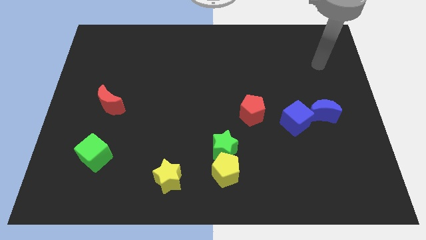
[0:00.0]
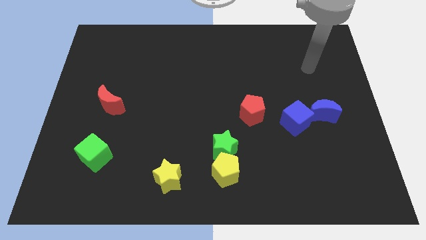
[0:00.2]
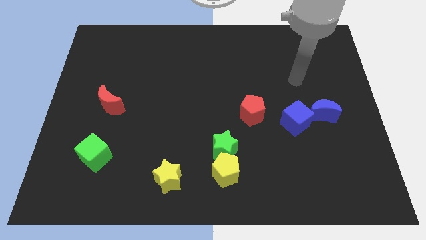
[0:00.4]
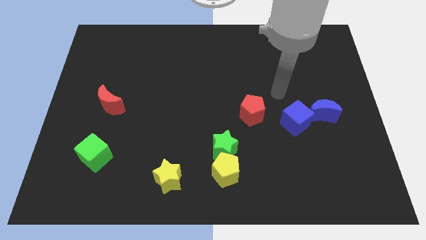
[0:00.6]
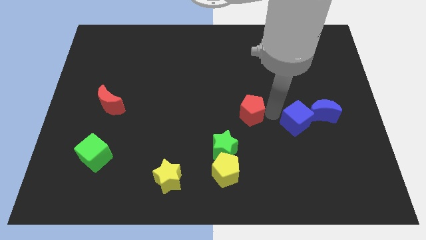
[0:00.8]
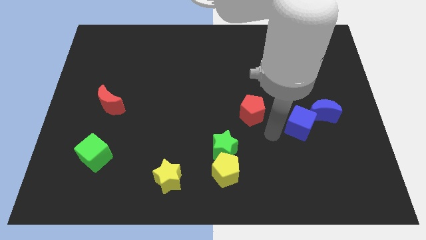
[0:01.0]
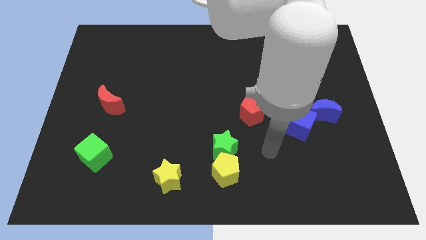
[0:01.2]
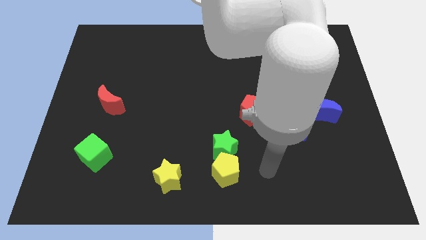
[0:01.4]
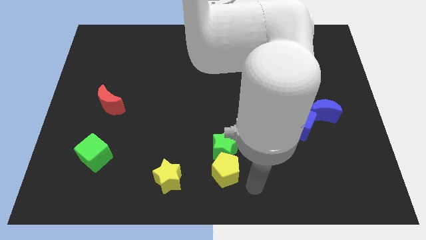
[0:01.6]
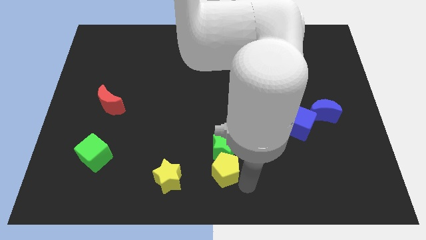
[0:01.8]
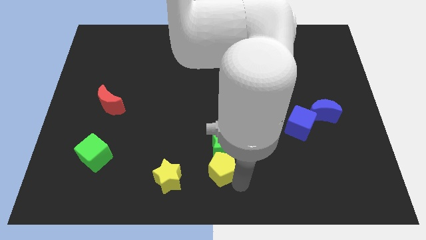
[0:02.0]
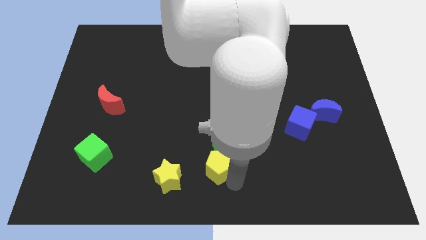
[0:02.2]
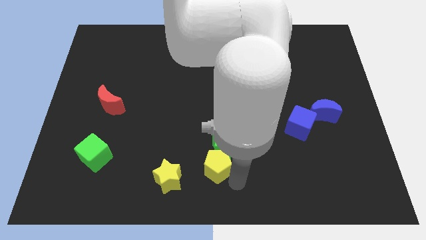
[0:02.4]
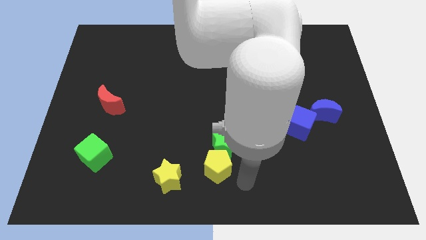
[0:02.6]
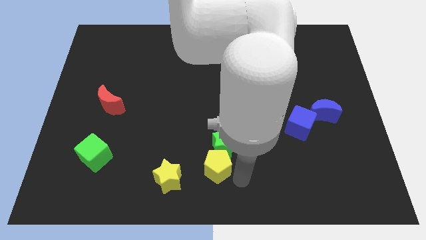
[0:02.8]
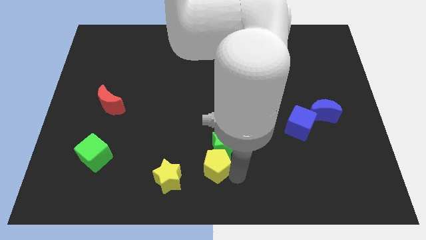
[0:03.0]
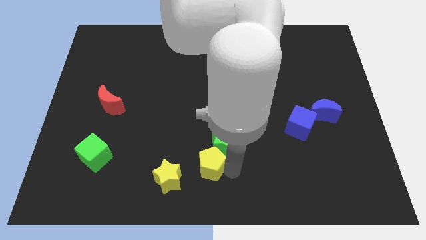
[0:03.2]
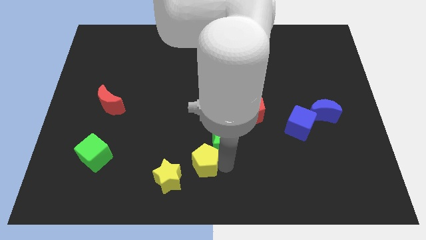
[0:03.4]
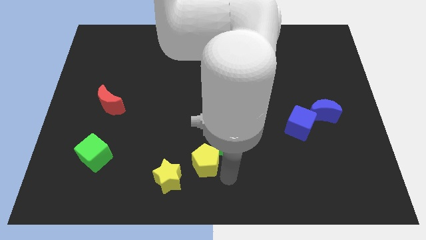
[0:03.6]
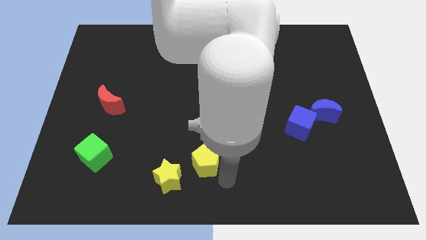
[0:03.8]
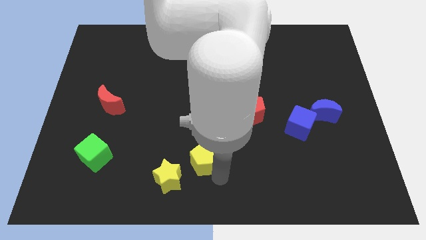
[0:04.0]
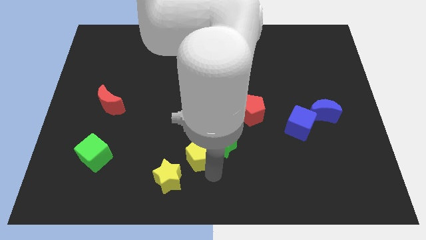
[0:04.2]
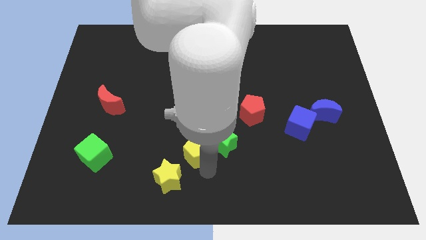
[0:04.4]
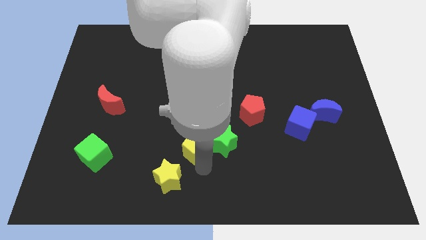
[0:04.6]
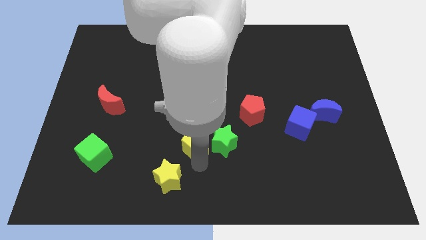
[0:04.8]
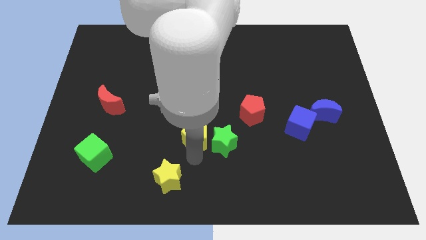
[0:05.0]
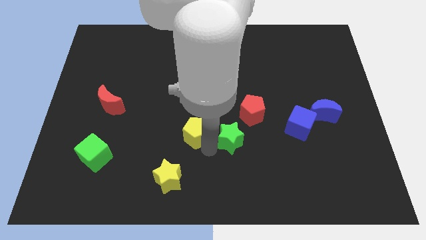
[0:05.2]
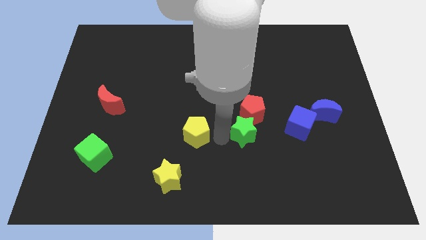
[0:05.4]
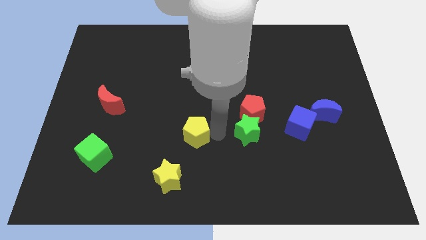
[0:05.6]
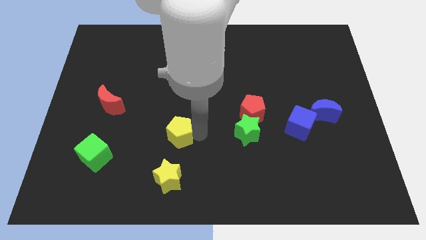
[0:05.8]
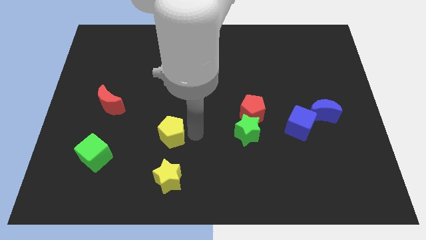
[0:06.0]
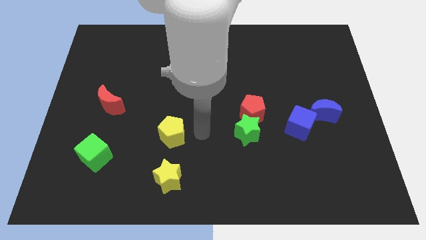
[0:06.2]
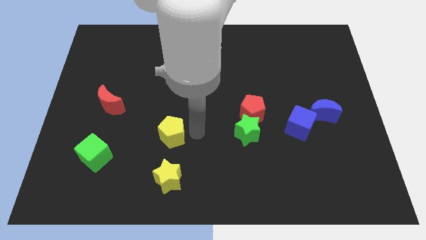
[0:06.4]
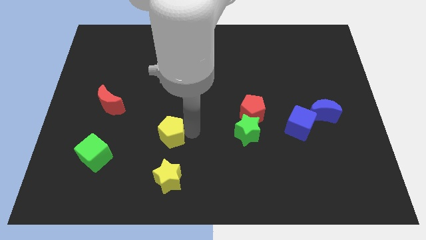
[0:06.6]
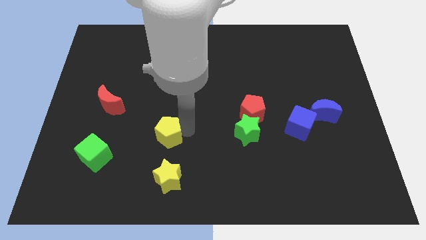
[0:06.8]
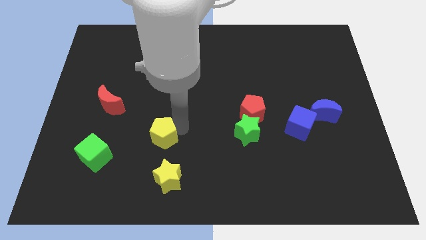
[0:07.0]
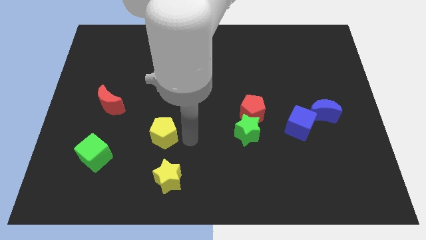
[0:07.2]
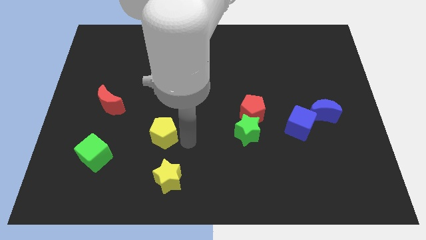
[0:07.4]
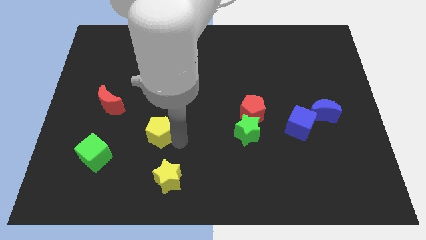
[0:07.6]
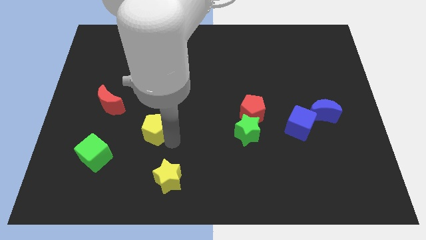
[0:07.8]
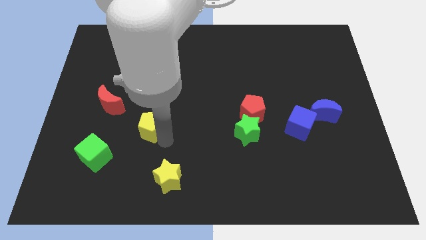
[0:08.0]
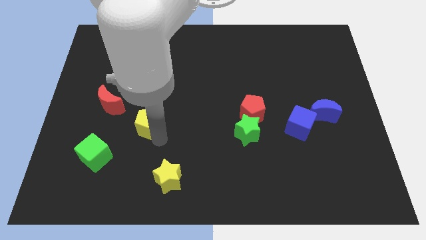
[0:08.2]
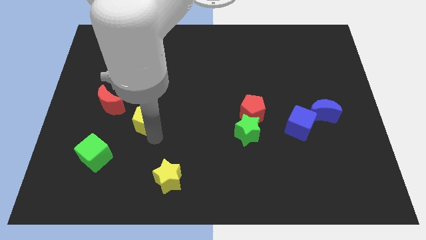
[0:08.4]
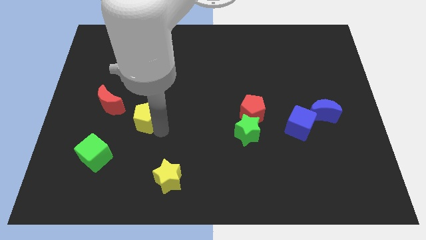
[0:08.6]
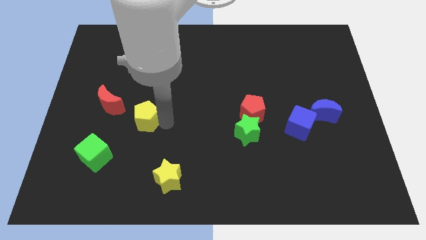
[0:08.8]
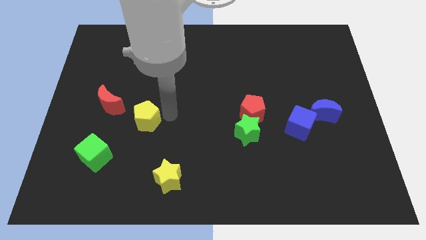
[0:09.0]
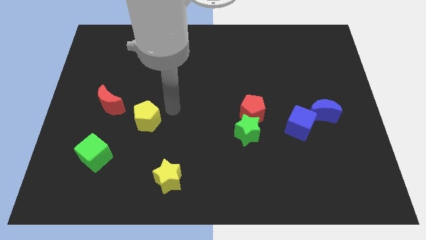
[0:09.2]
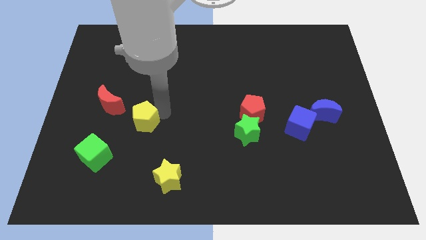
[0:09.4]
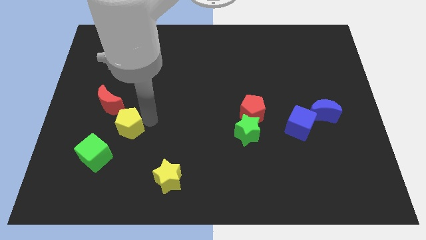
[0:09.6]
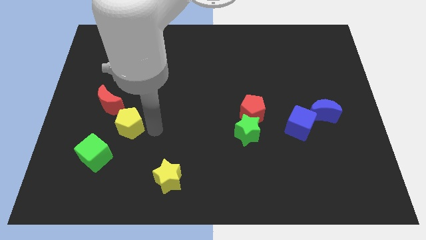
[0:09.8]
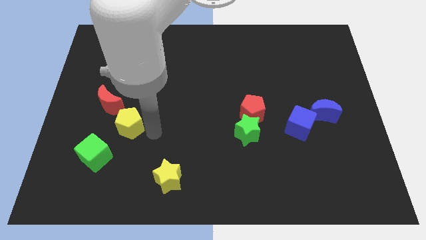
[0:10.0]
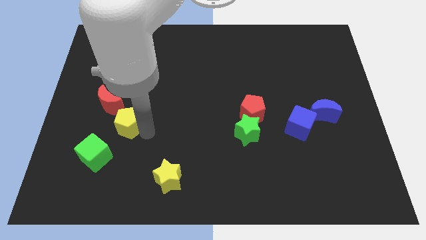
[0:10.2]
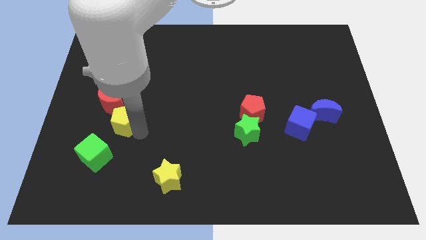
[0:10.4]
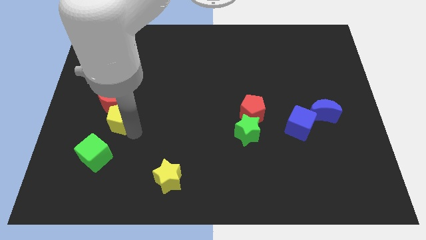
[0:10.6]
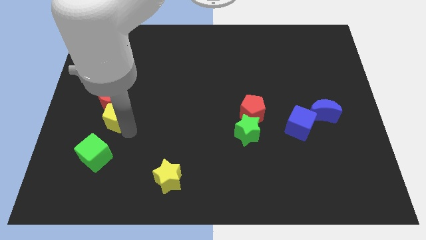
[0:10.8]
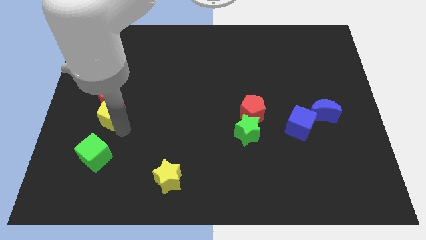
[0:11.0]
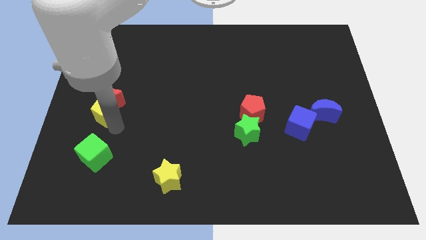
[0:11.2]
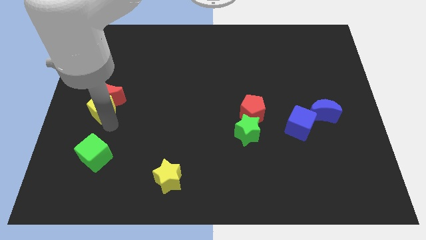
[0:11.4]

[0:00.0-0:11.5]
slide the yellow pentagon to the left side
